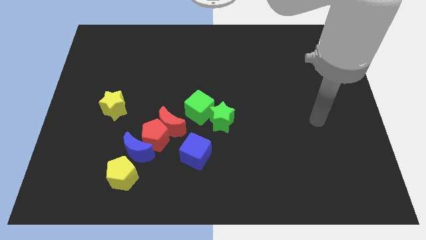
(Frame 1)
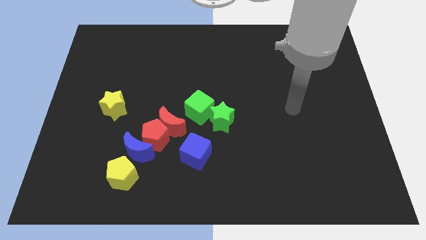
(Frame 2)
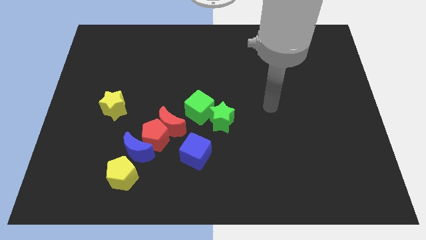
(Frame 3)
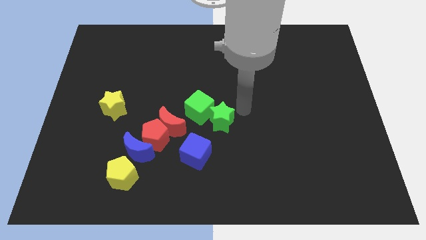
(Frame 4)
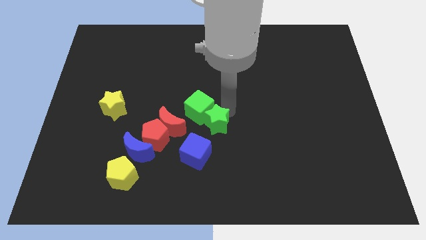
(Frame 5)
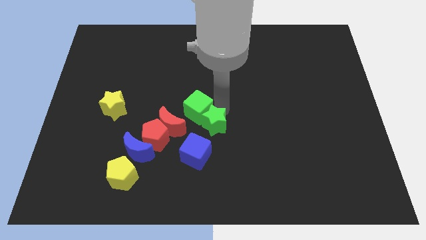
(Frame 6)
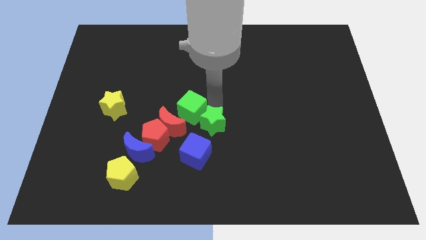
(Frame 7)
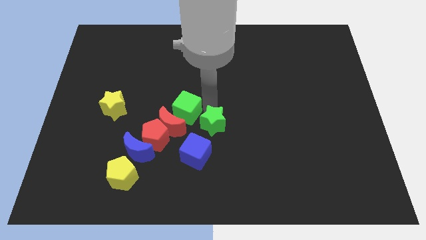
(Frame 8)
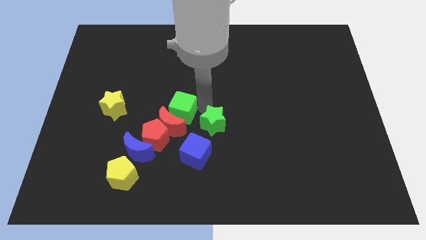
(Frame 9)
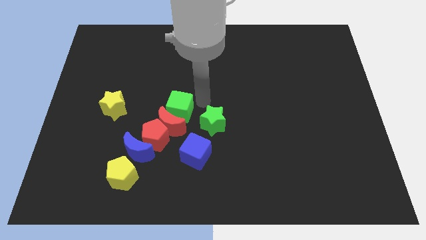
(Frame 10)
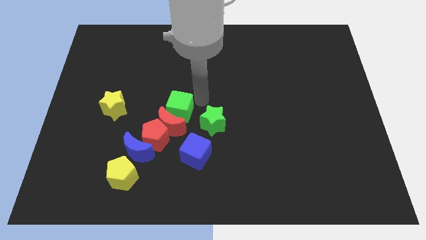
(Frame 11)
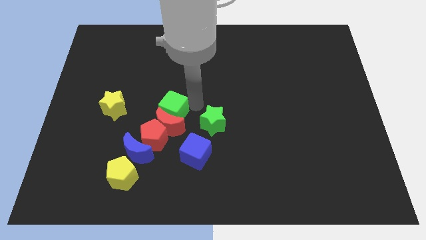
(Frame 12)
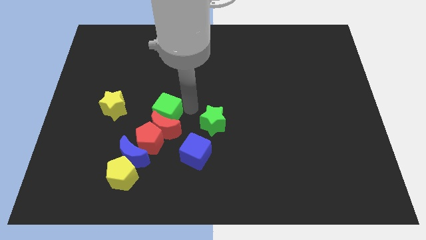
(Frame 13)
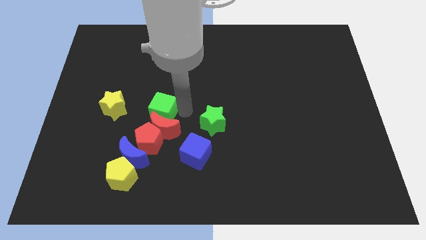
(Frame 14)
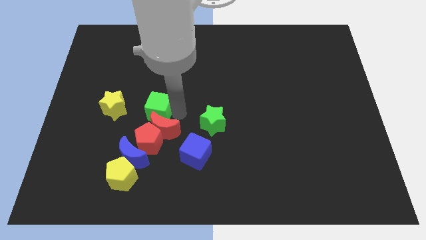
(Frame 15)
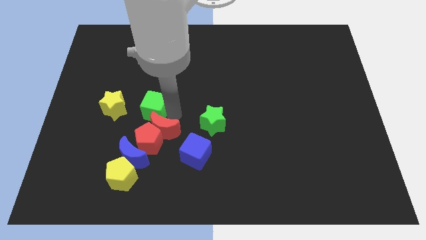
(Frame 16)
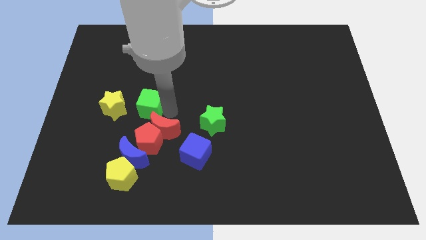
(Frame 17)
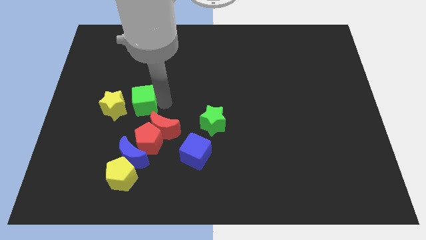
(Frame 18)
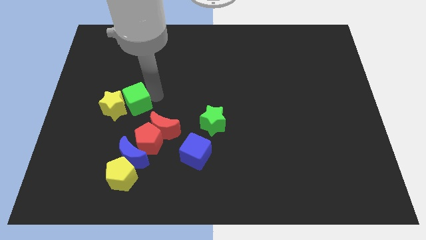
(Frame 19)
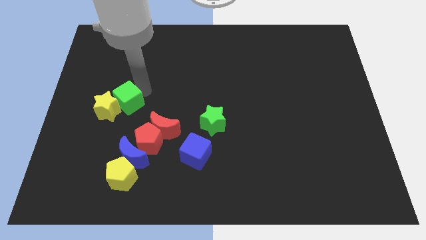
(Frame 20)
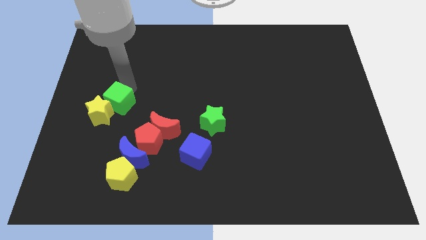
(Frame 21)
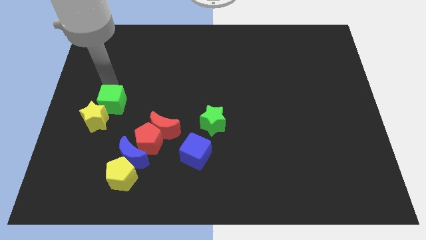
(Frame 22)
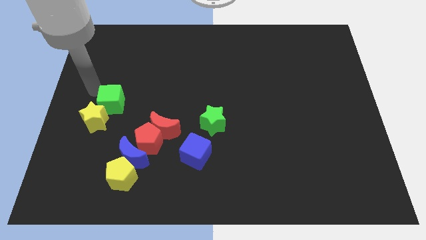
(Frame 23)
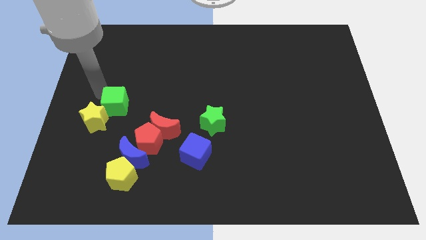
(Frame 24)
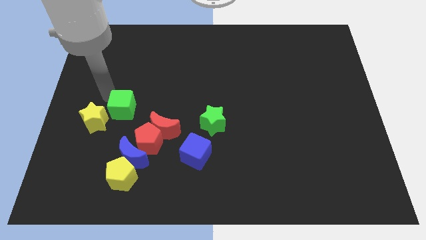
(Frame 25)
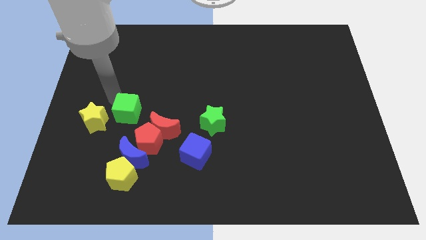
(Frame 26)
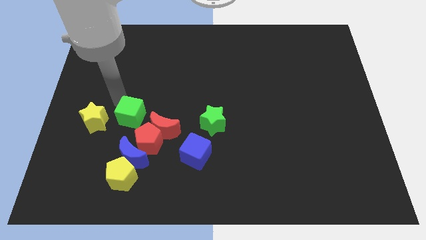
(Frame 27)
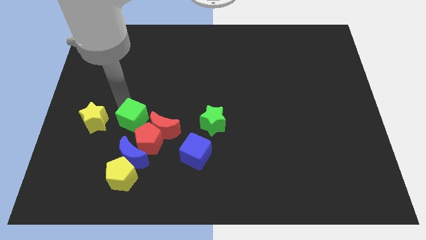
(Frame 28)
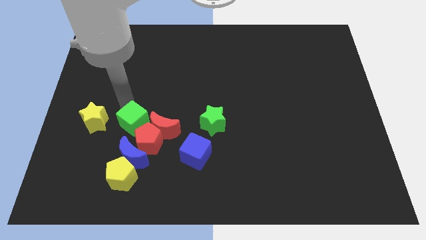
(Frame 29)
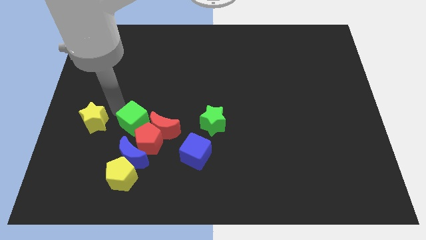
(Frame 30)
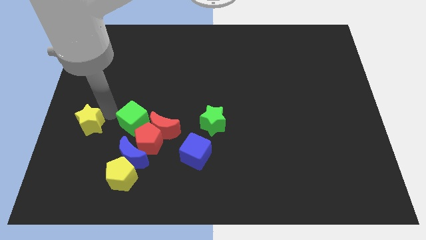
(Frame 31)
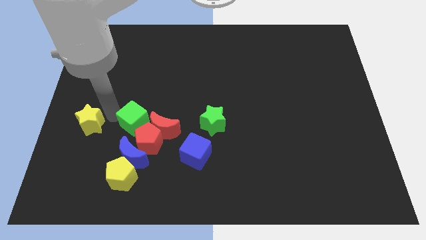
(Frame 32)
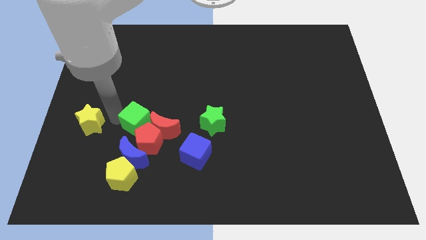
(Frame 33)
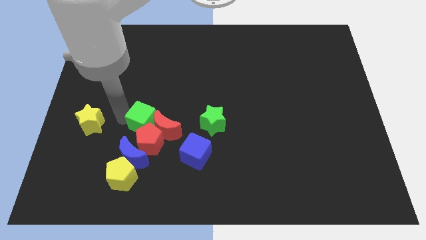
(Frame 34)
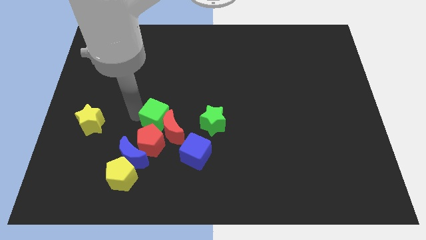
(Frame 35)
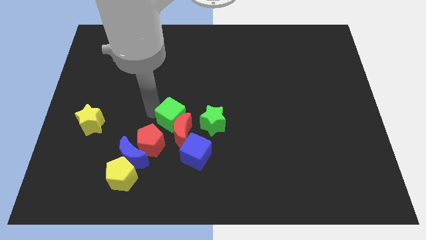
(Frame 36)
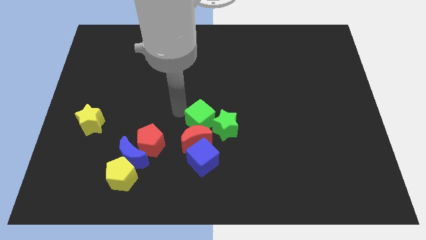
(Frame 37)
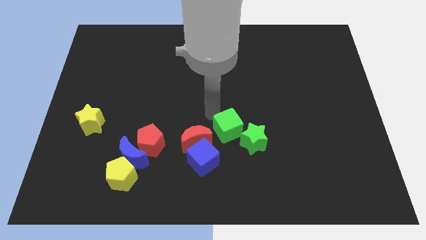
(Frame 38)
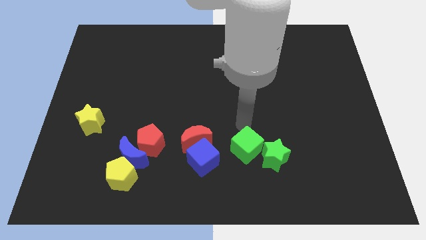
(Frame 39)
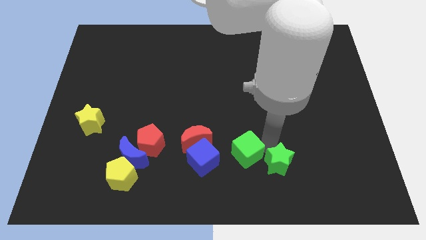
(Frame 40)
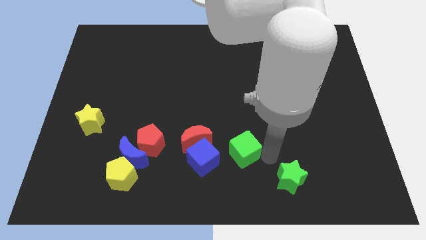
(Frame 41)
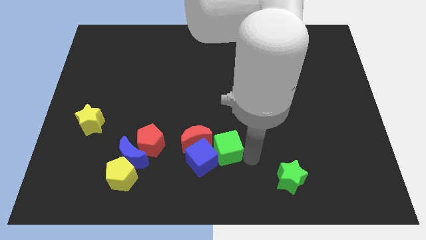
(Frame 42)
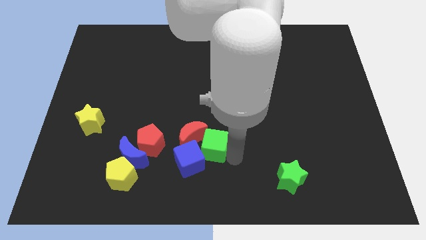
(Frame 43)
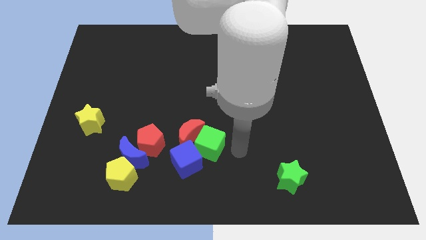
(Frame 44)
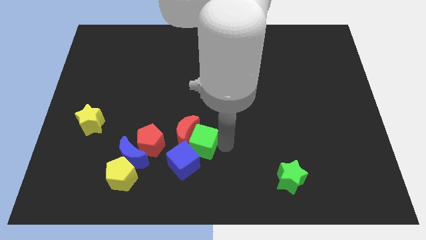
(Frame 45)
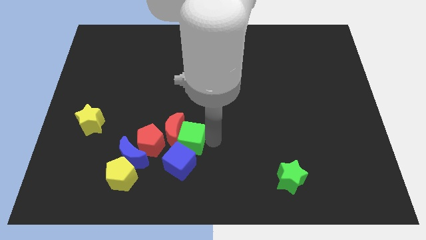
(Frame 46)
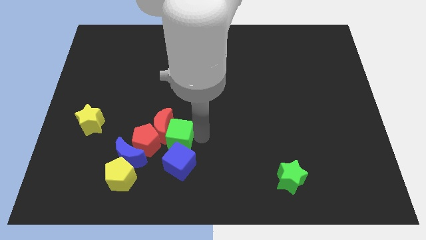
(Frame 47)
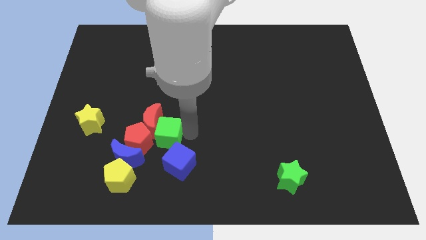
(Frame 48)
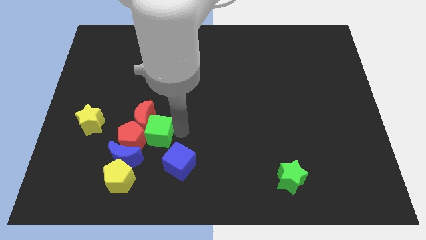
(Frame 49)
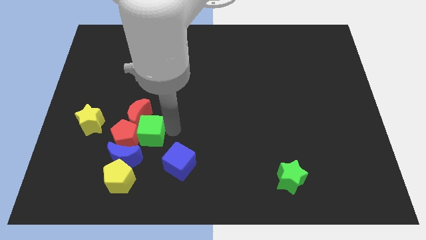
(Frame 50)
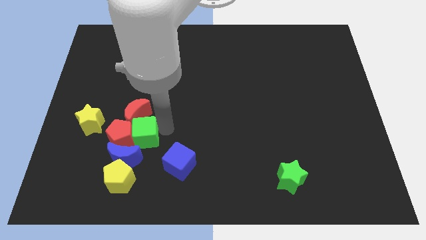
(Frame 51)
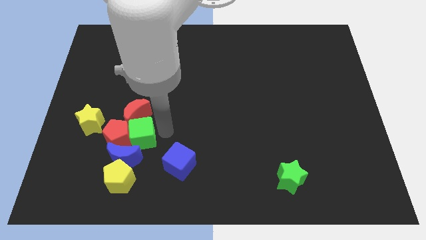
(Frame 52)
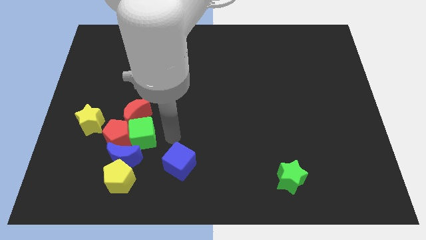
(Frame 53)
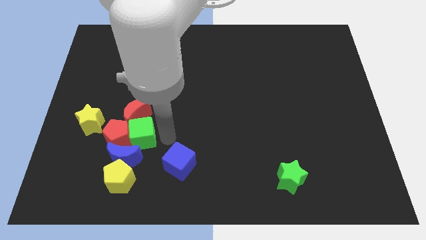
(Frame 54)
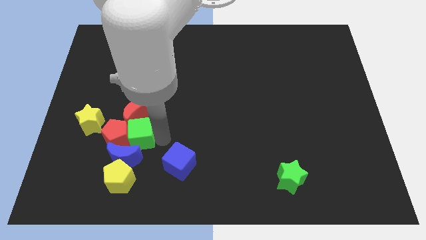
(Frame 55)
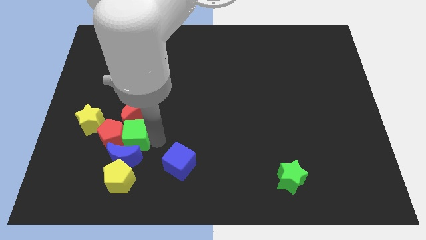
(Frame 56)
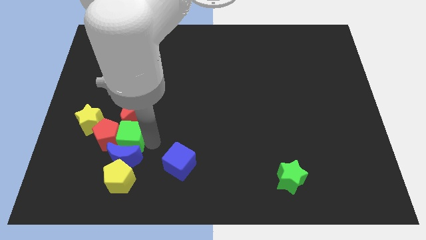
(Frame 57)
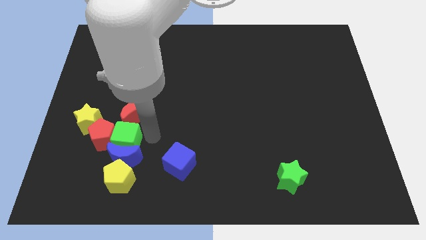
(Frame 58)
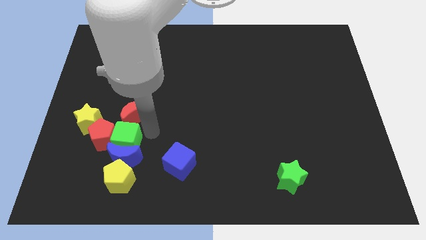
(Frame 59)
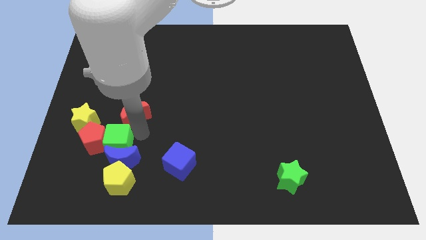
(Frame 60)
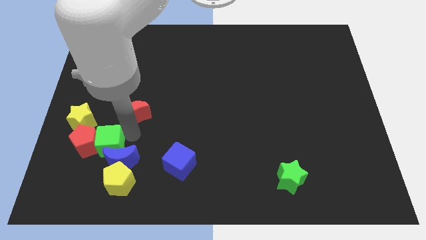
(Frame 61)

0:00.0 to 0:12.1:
move the green cube just left of the blue moon

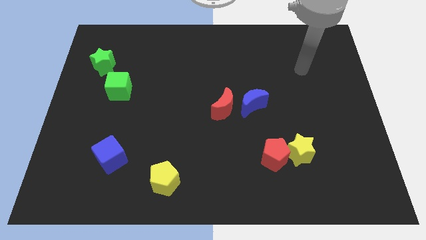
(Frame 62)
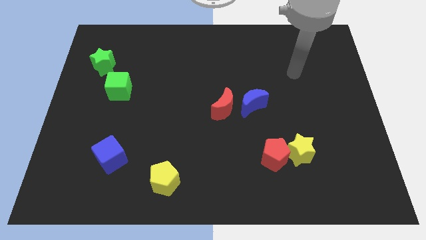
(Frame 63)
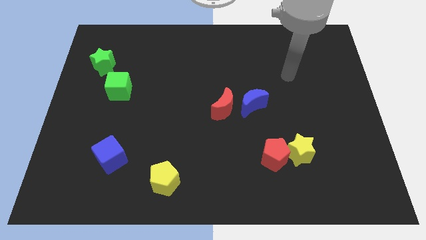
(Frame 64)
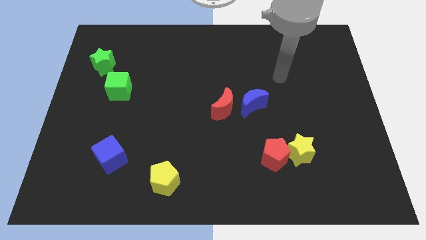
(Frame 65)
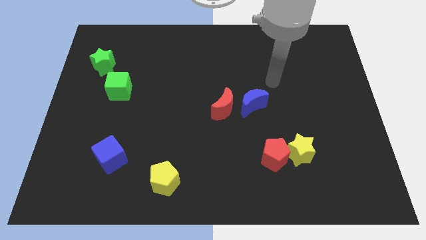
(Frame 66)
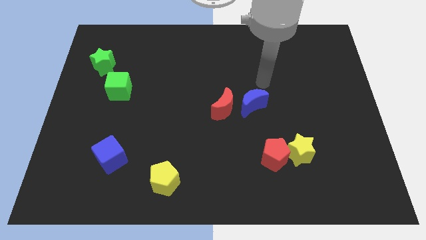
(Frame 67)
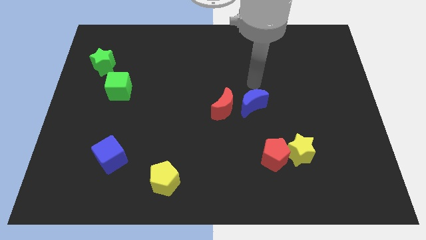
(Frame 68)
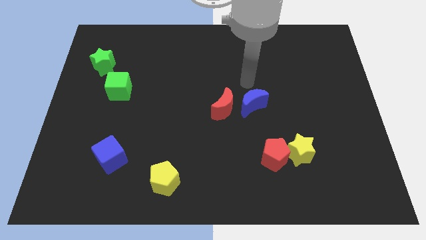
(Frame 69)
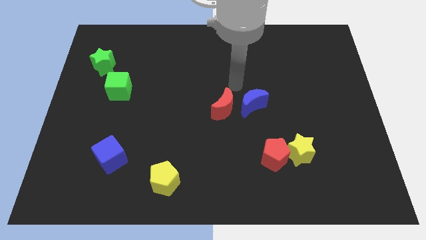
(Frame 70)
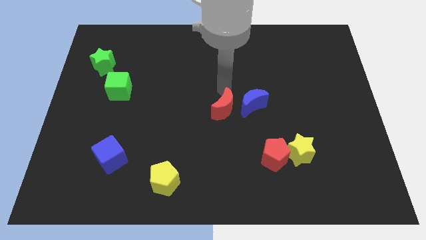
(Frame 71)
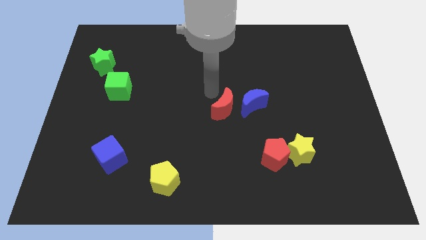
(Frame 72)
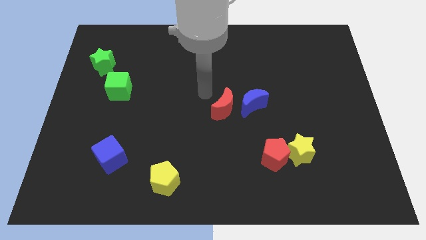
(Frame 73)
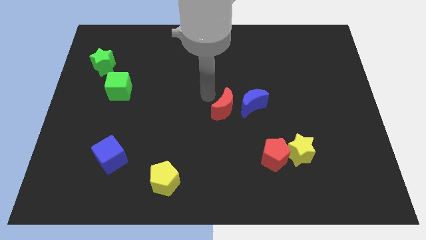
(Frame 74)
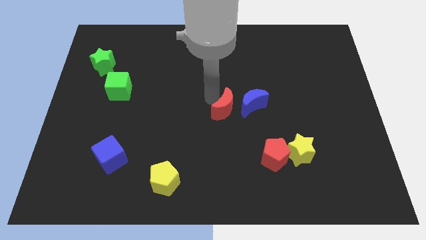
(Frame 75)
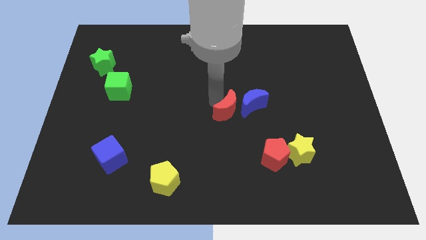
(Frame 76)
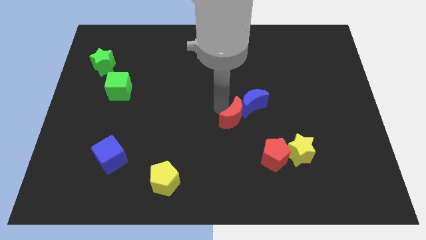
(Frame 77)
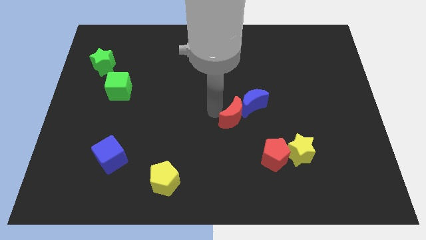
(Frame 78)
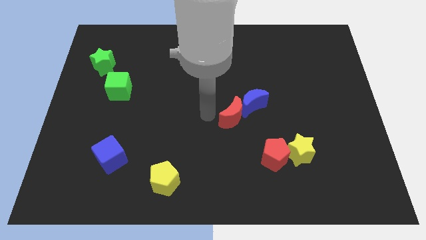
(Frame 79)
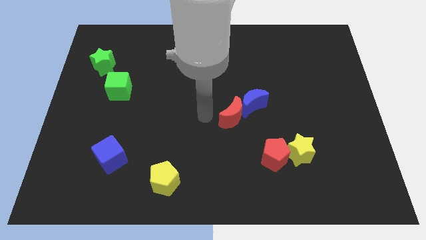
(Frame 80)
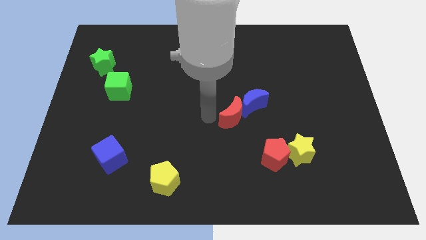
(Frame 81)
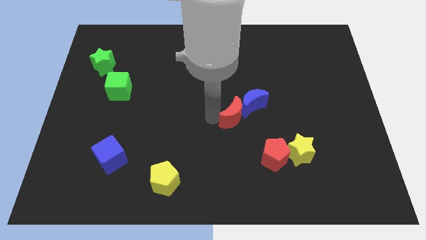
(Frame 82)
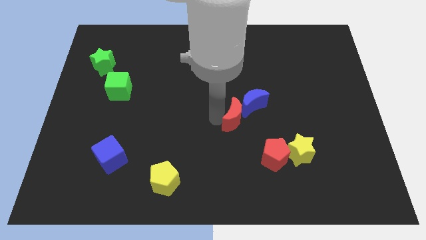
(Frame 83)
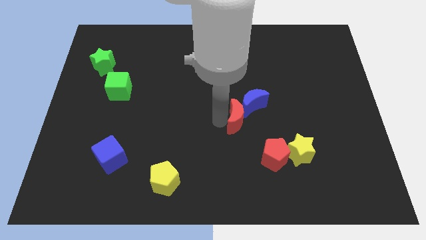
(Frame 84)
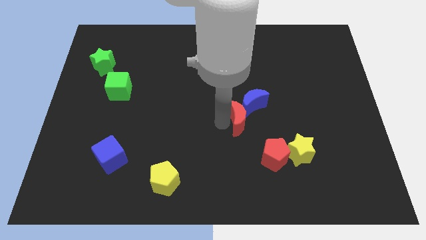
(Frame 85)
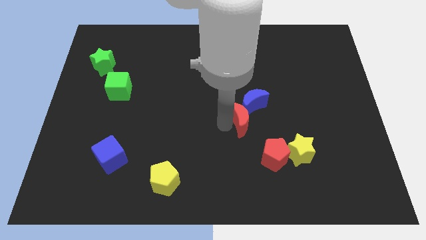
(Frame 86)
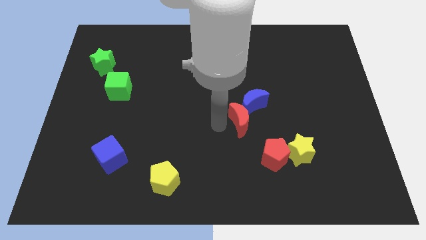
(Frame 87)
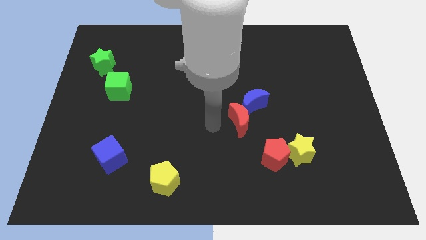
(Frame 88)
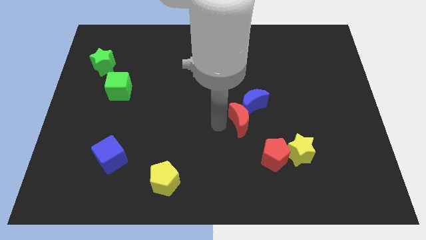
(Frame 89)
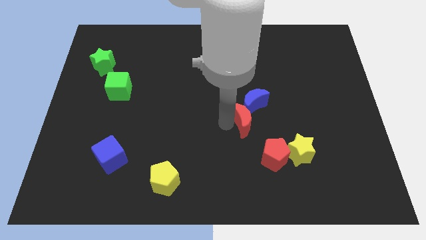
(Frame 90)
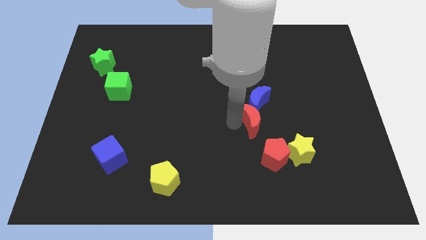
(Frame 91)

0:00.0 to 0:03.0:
push the red moon to the top of the red pentagon
